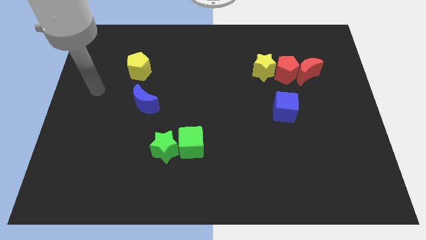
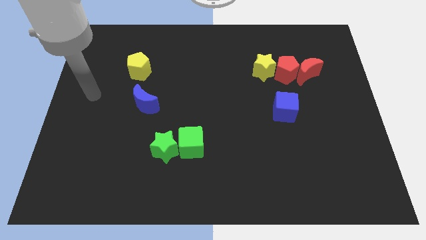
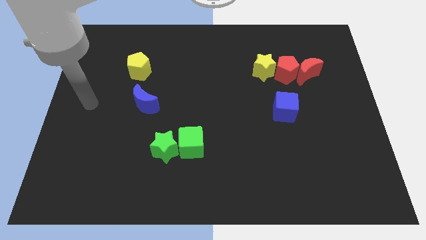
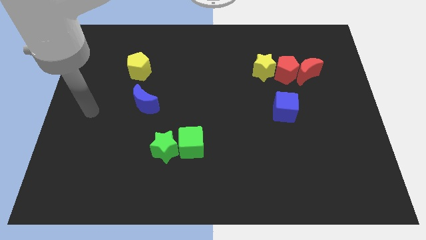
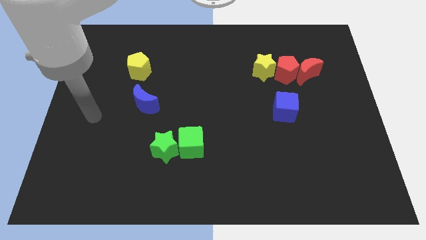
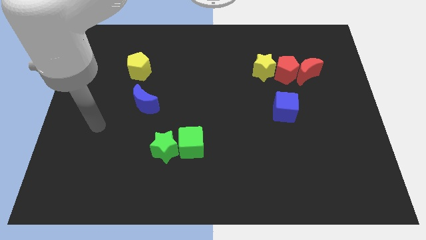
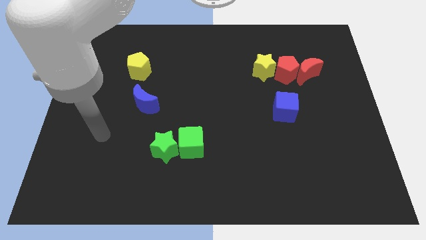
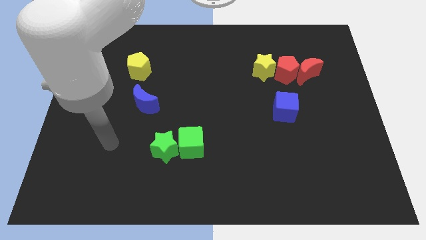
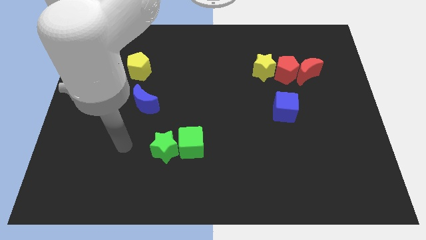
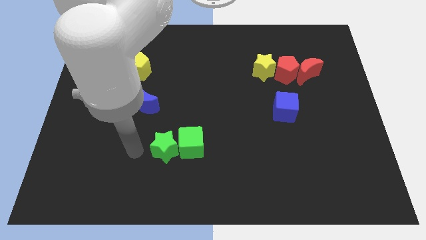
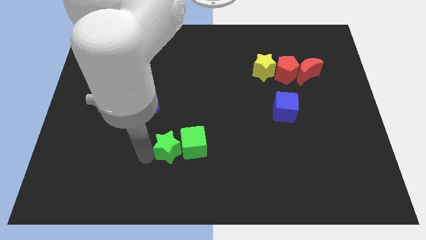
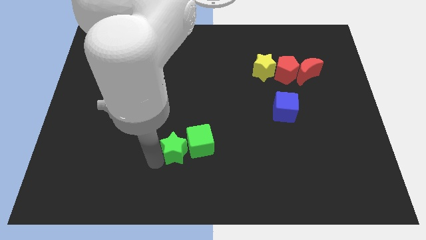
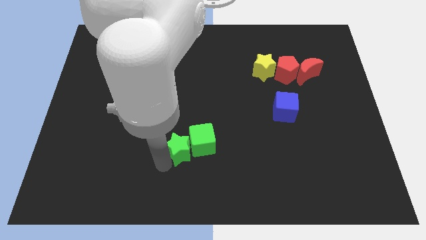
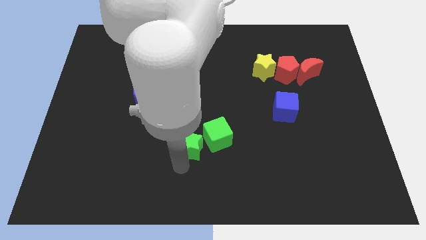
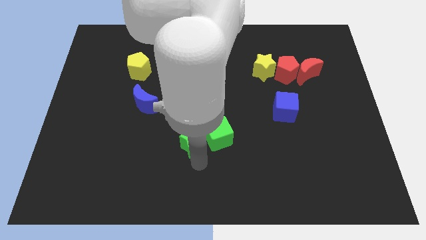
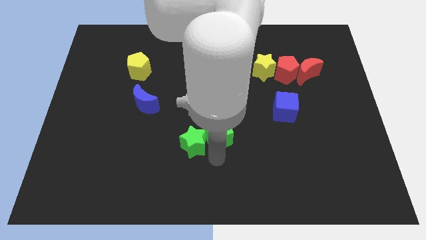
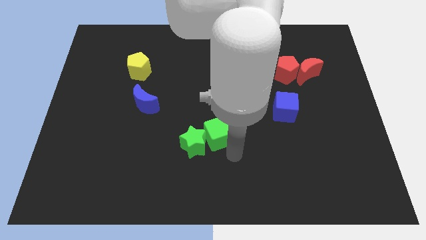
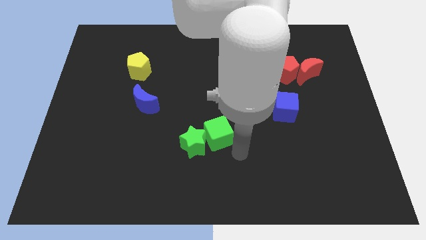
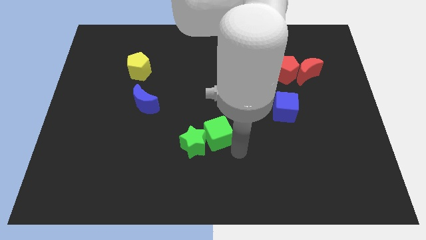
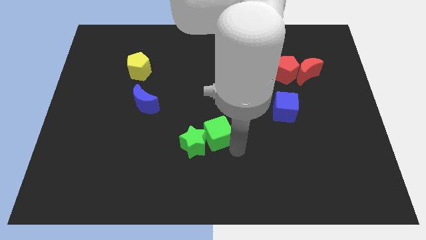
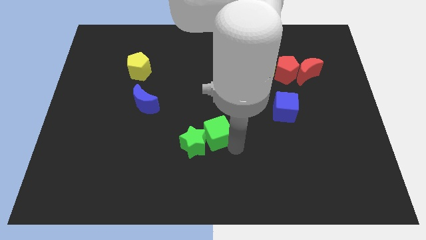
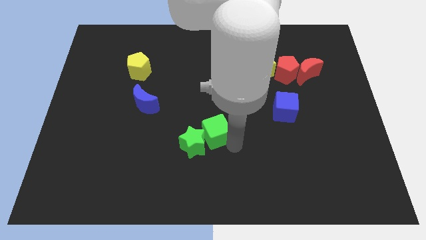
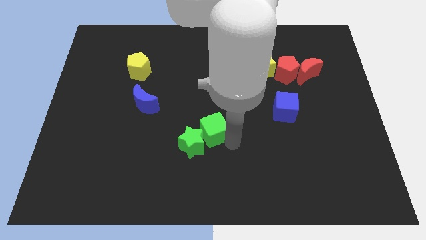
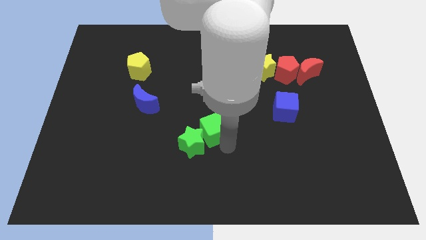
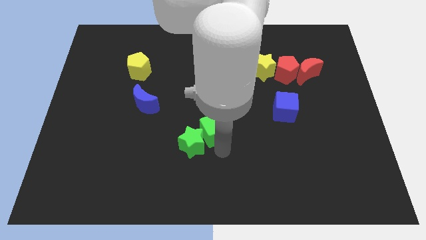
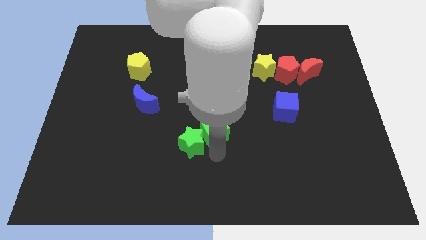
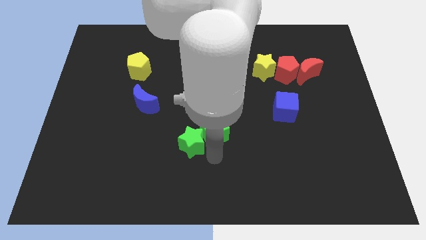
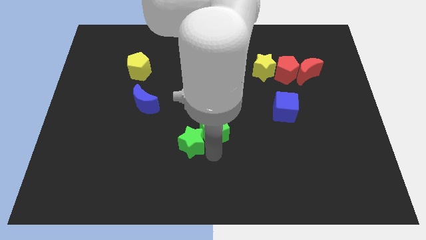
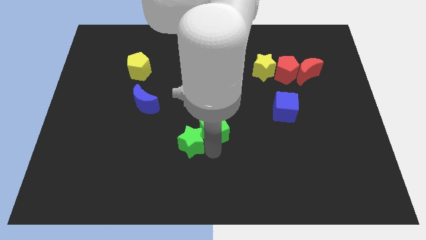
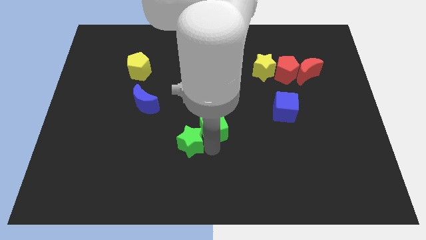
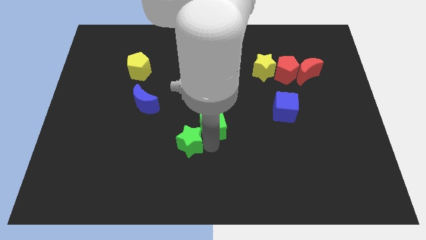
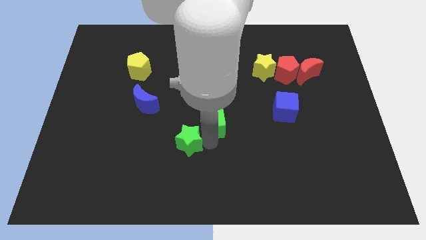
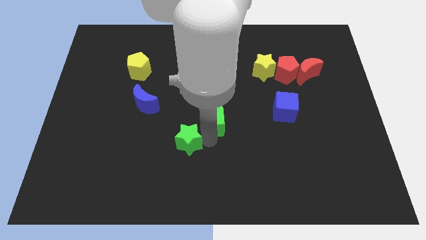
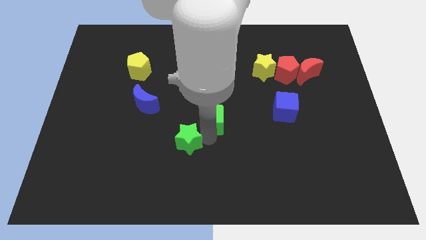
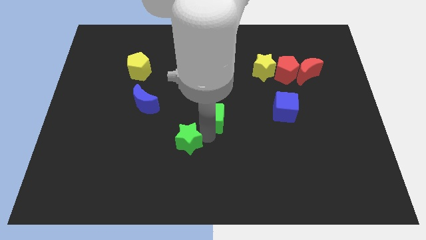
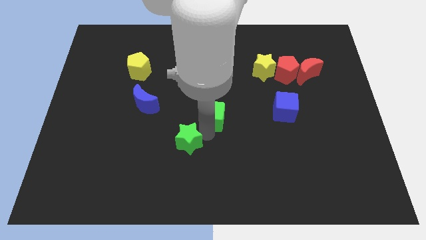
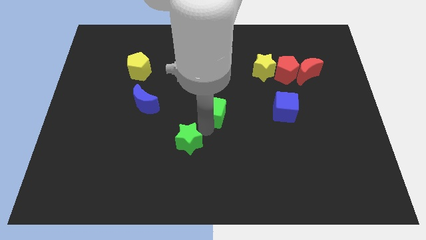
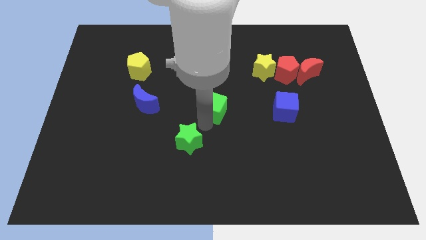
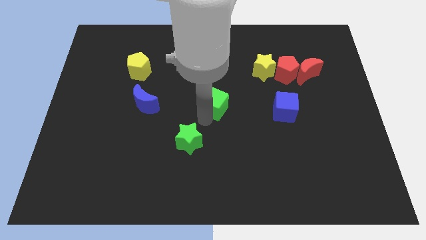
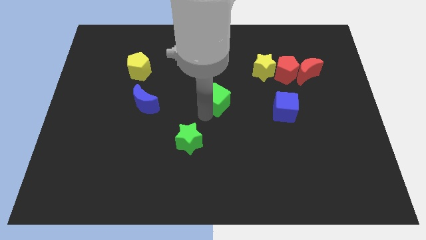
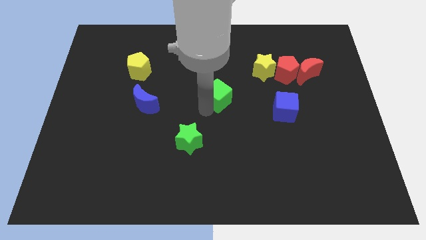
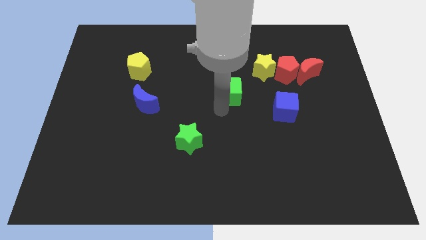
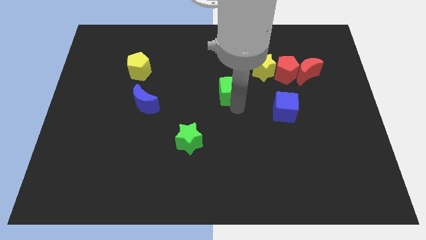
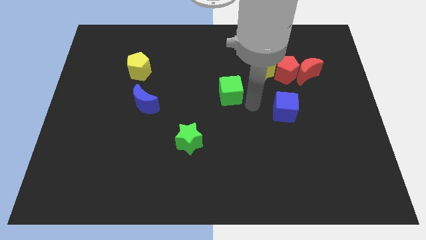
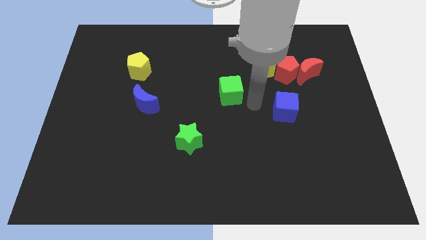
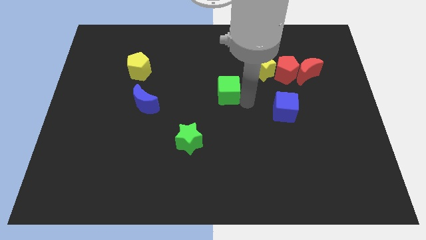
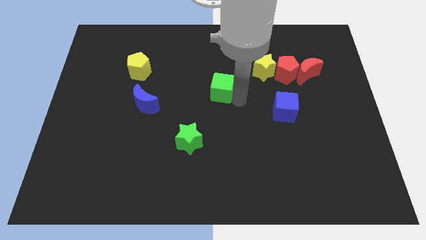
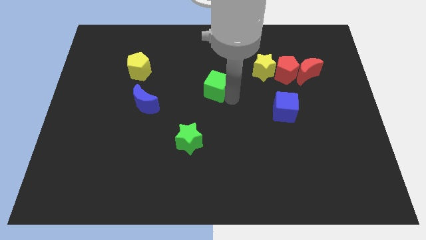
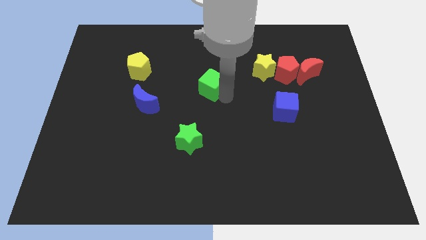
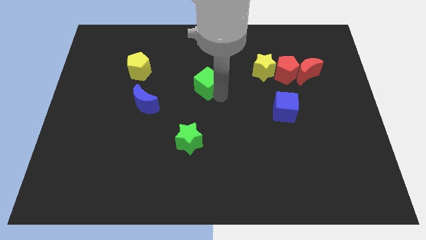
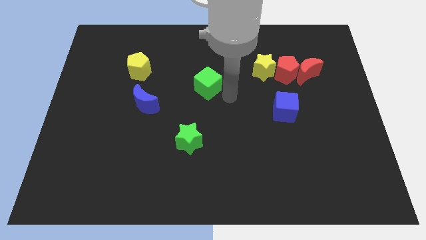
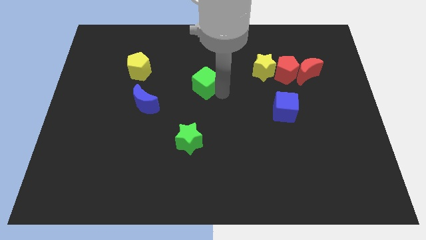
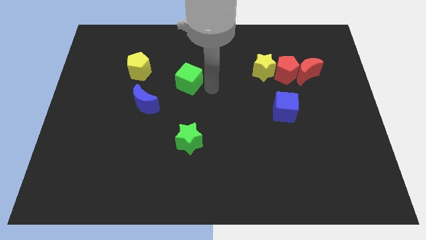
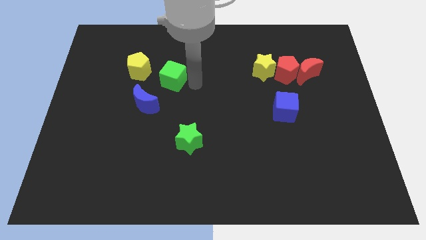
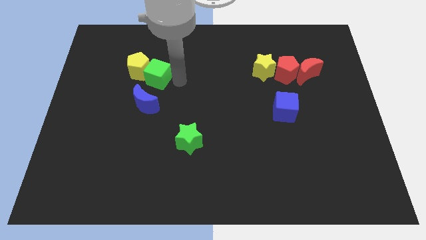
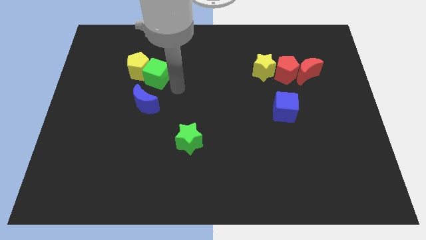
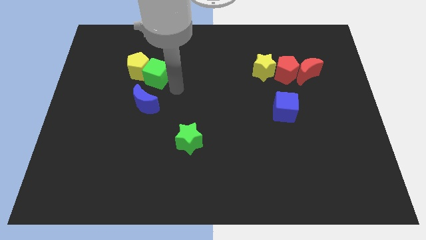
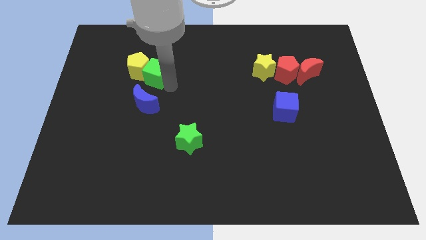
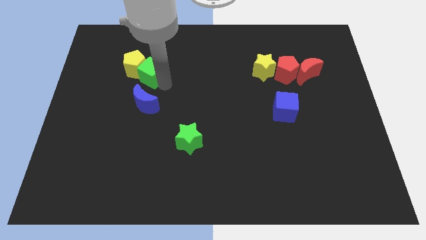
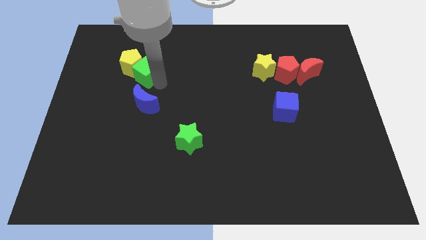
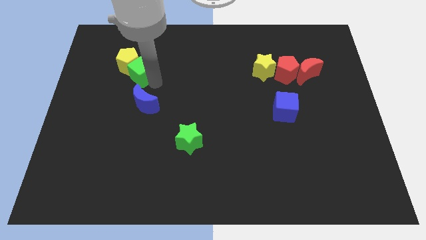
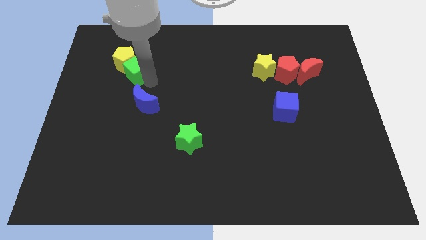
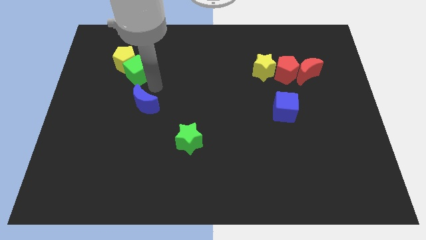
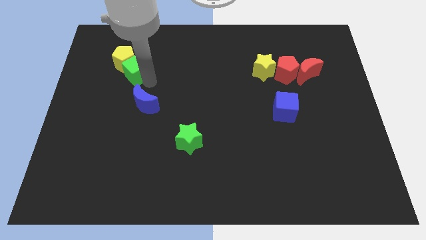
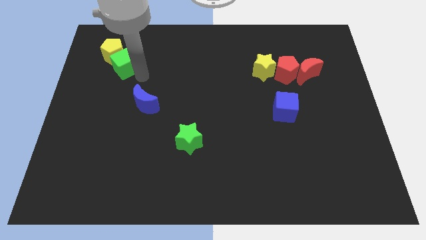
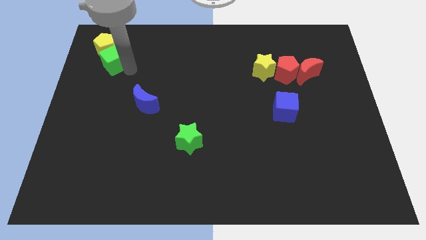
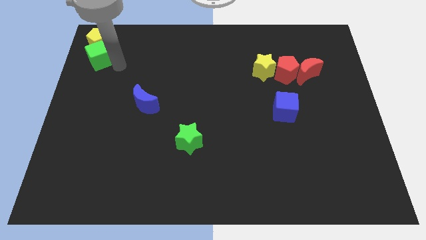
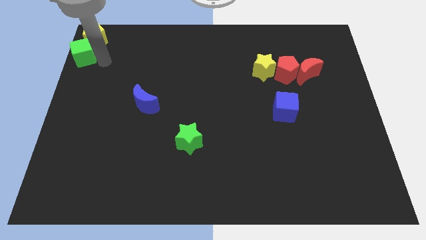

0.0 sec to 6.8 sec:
move the green cube to the top left
